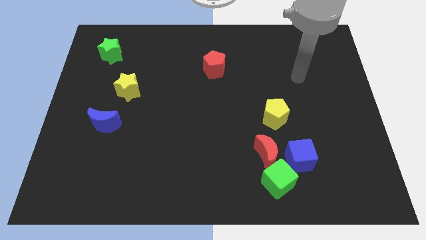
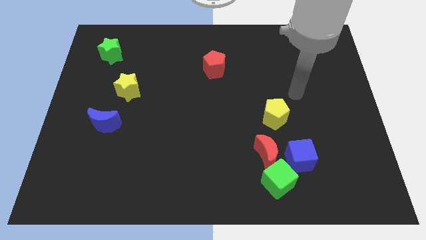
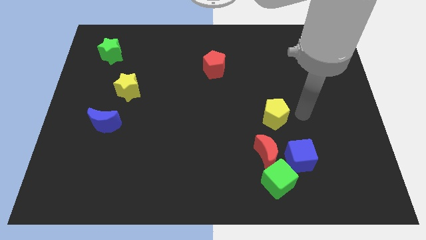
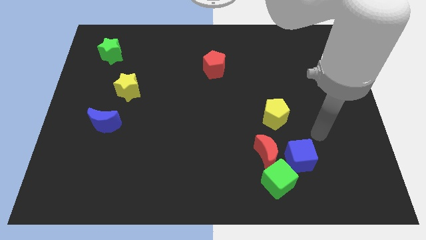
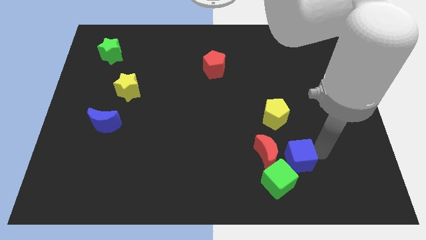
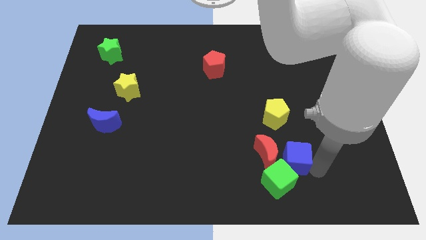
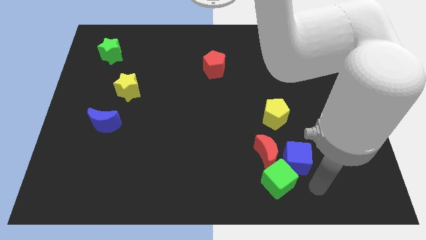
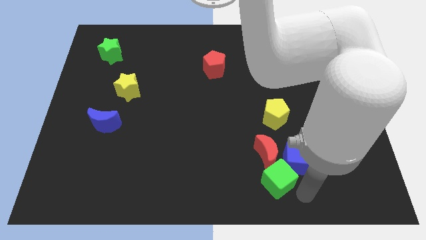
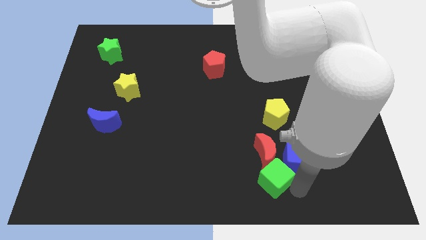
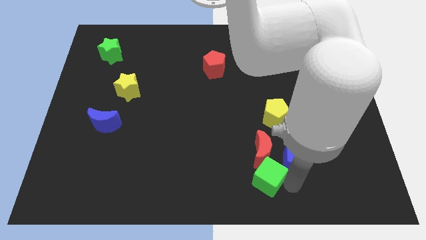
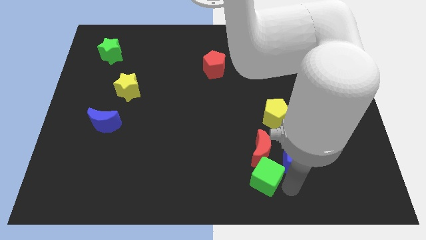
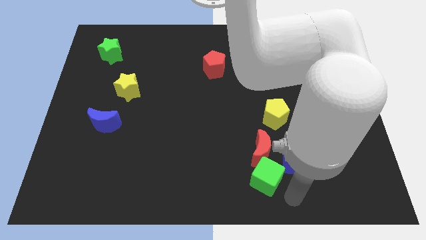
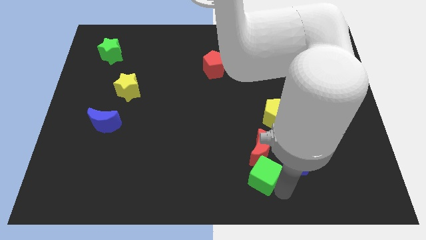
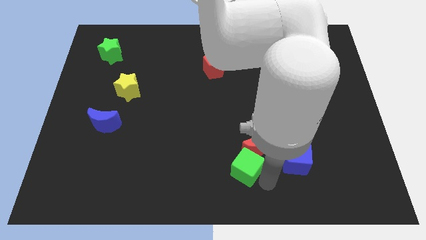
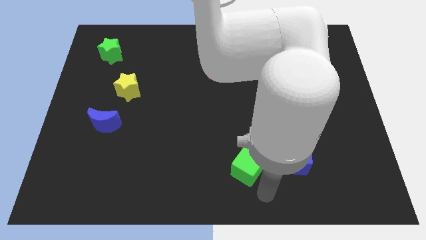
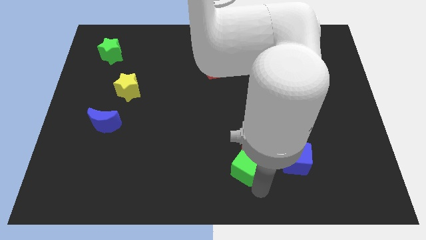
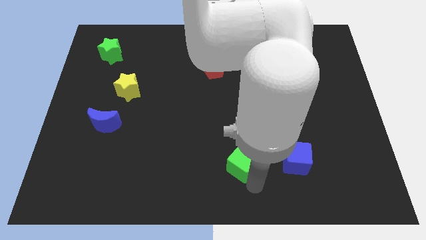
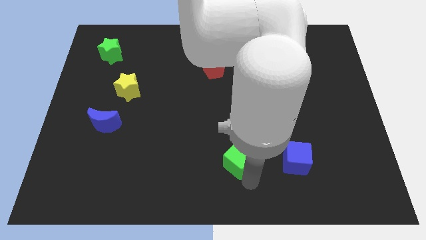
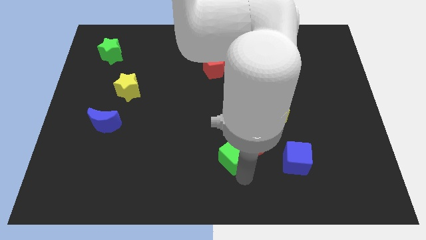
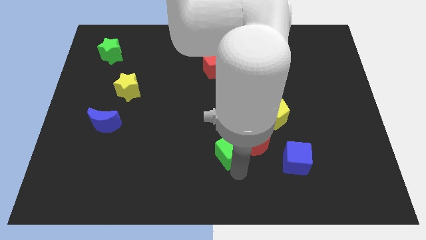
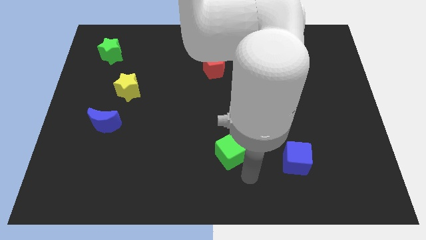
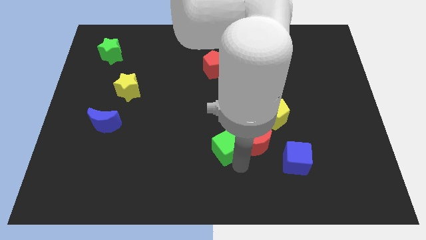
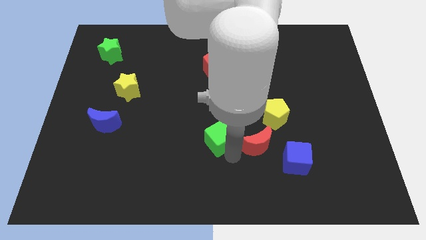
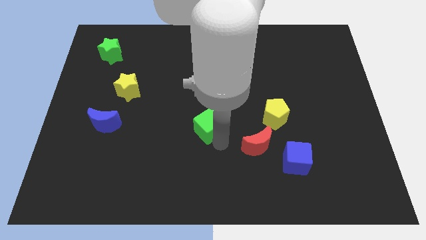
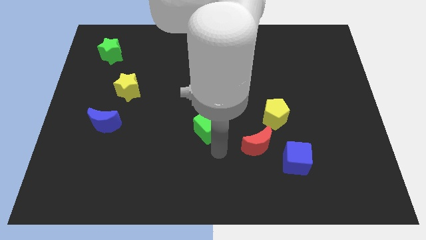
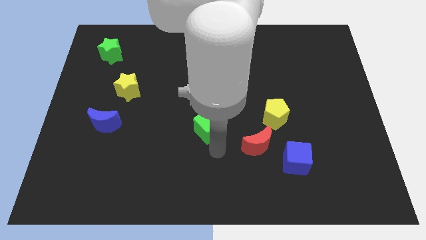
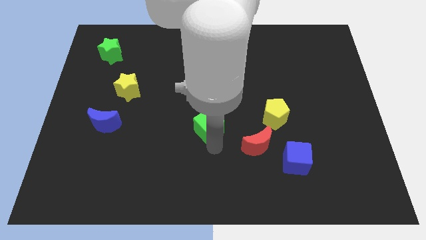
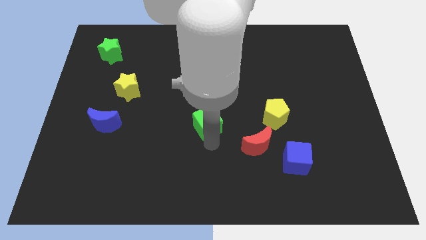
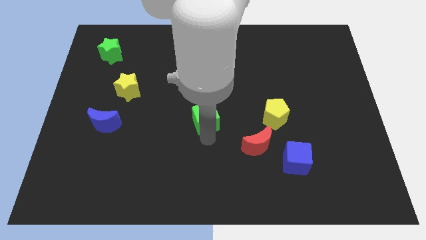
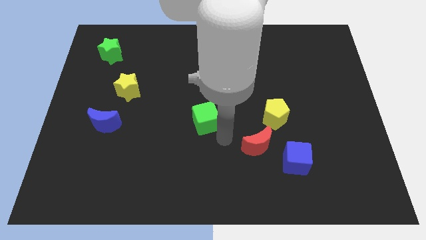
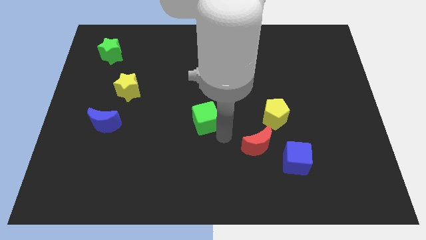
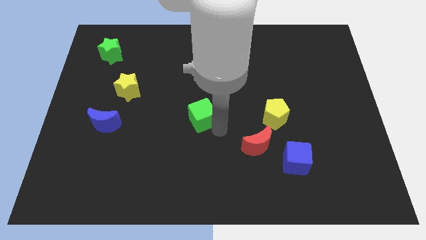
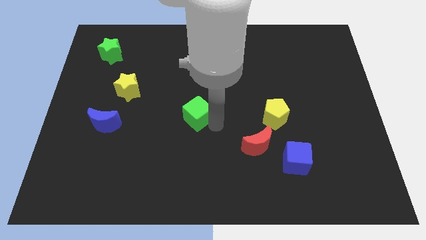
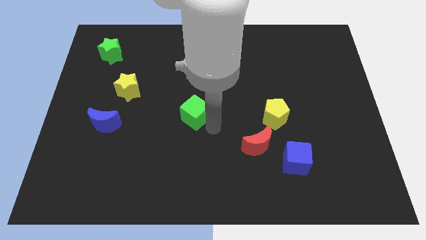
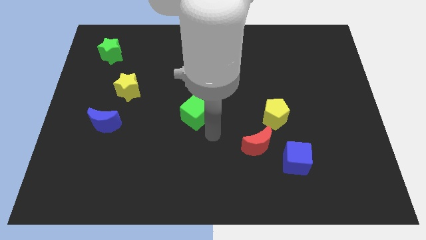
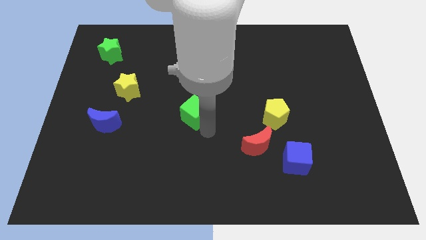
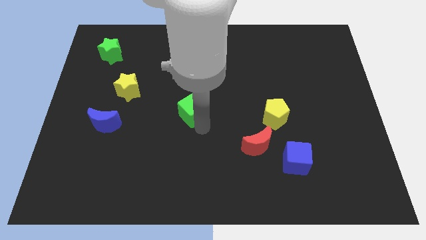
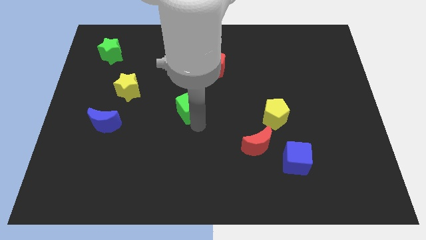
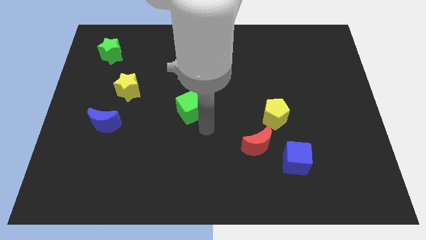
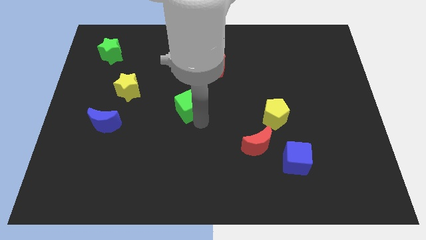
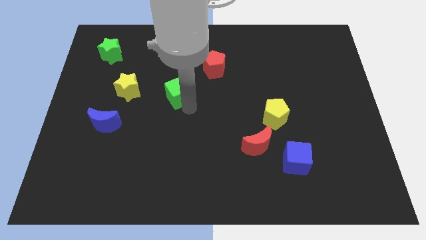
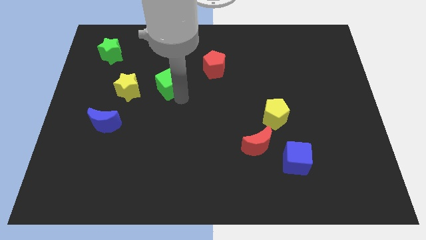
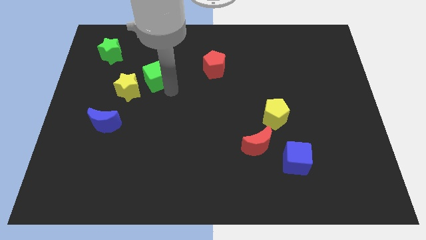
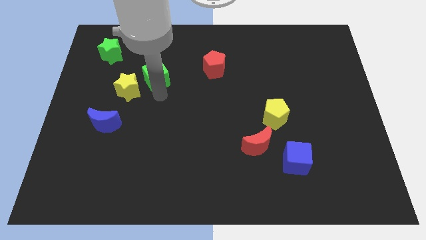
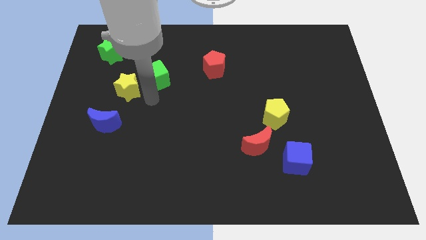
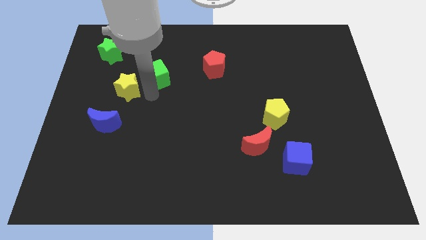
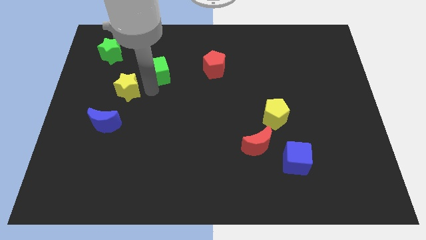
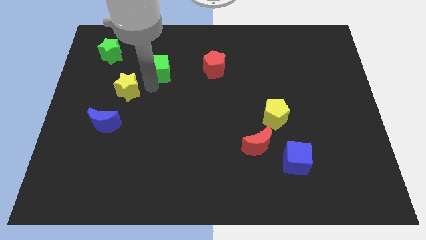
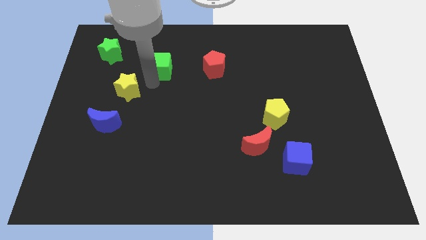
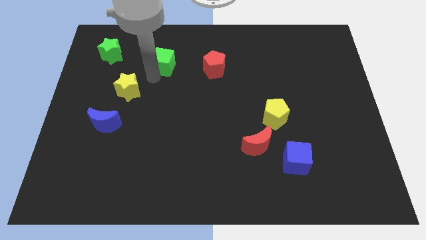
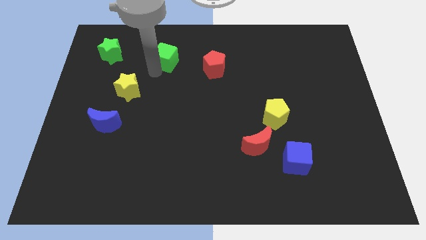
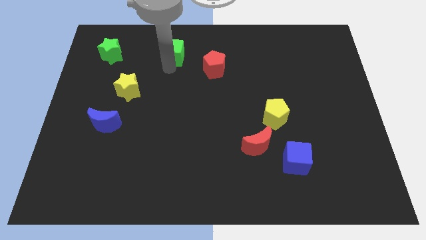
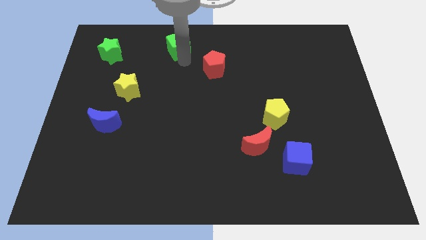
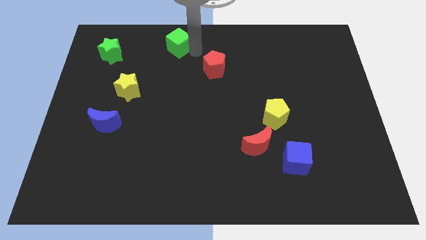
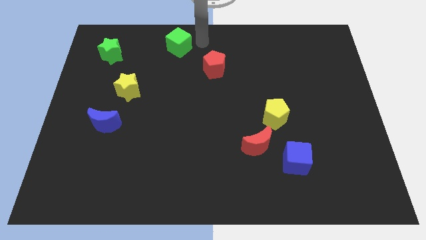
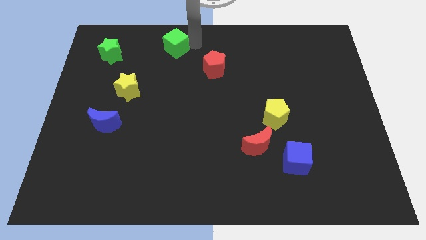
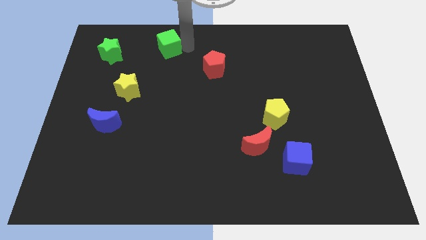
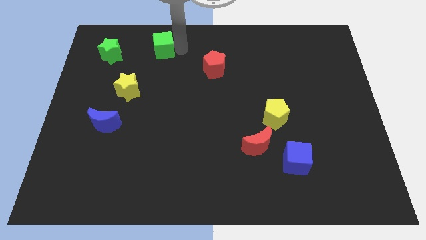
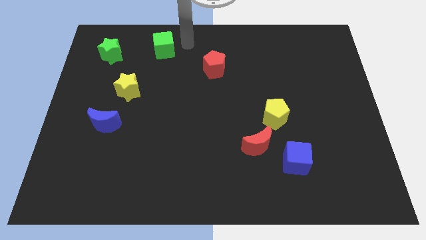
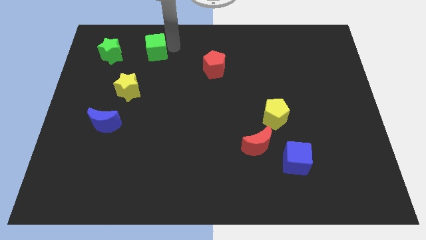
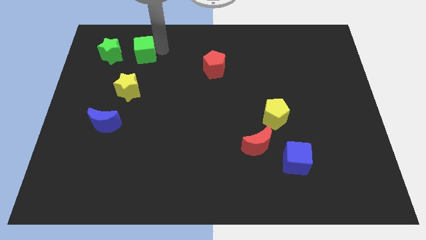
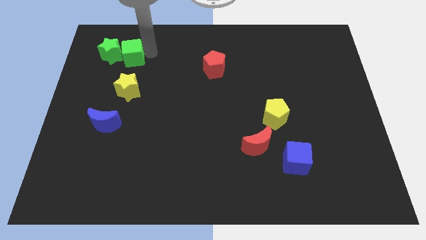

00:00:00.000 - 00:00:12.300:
push the green cube close to the green star

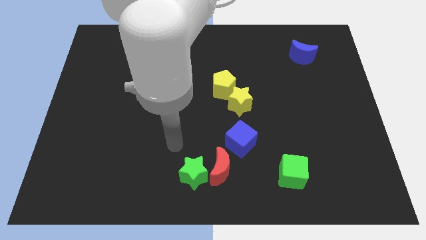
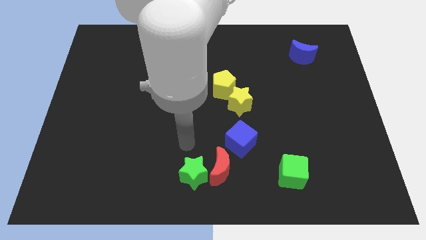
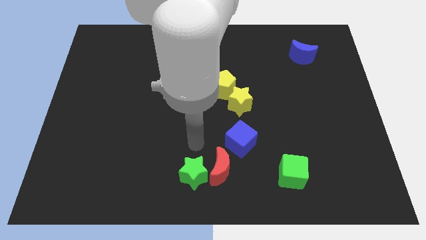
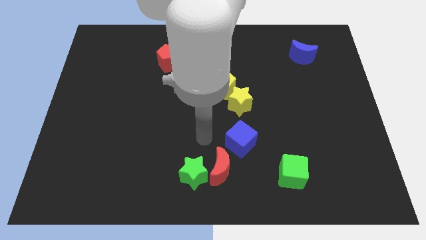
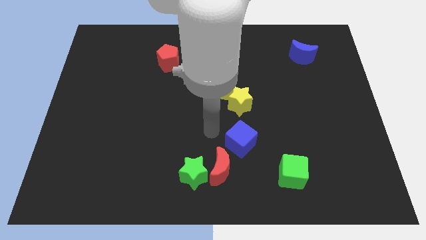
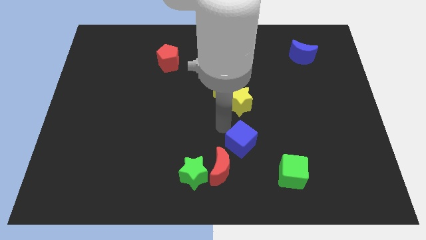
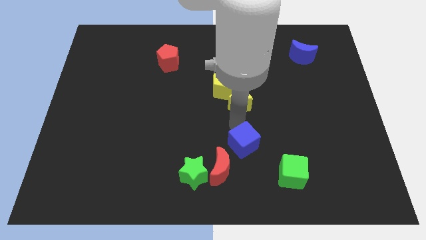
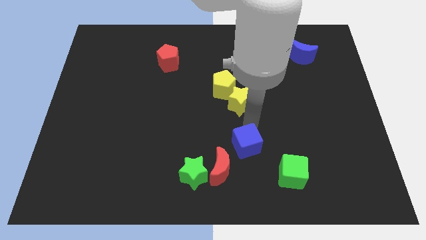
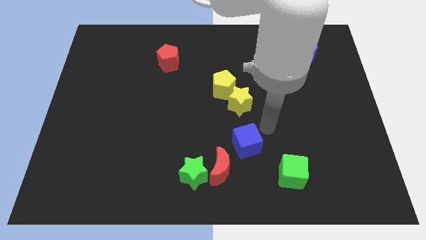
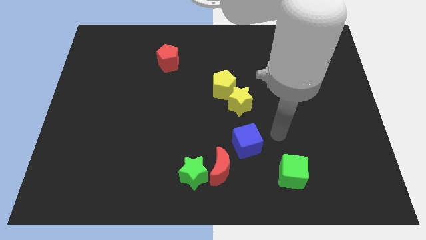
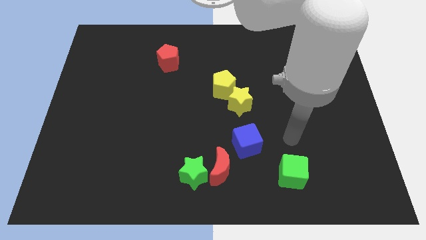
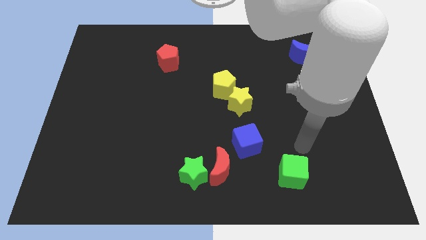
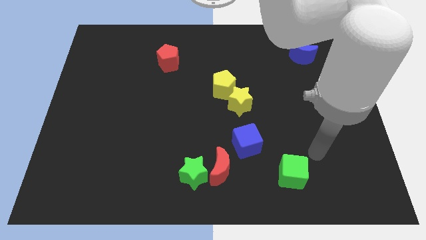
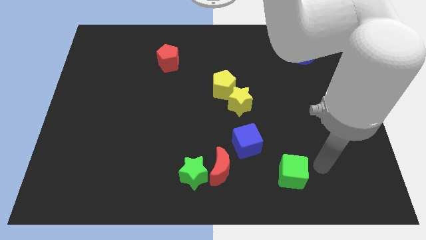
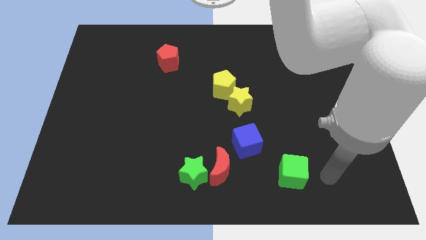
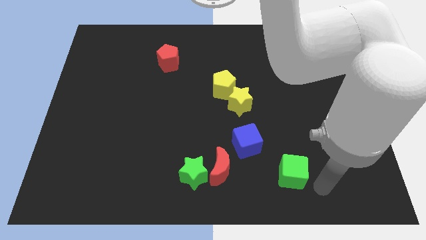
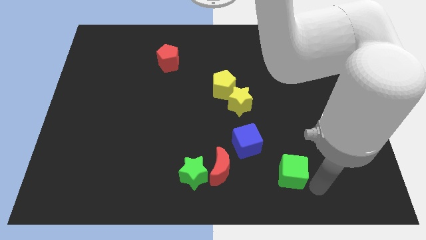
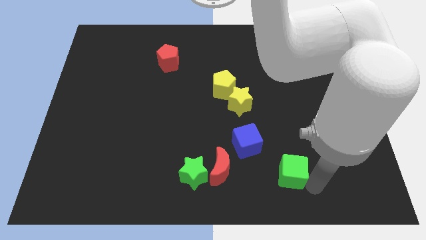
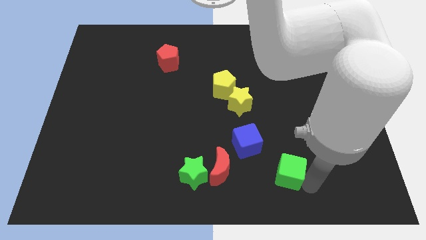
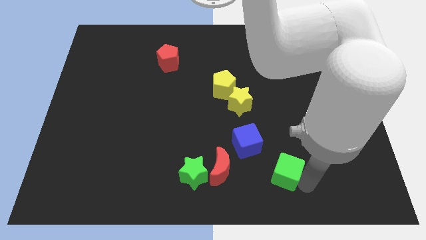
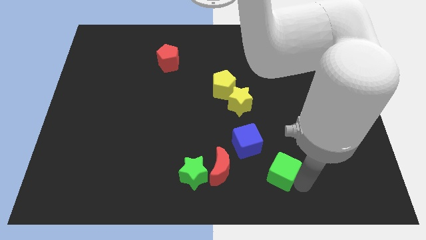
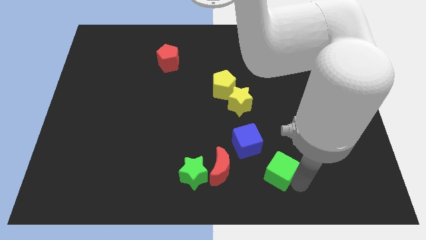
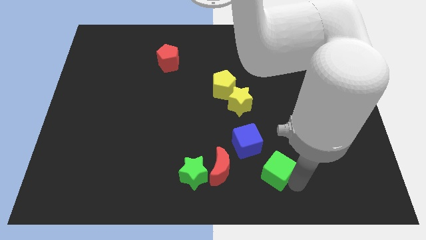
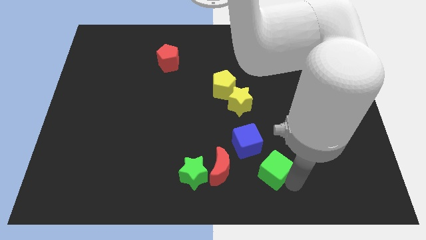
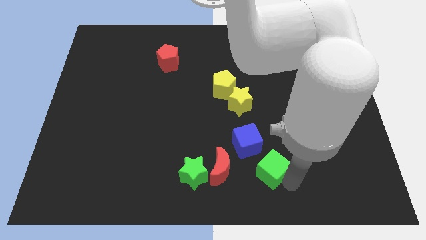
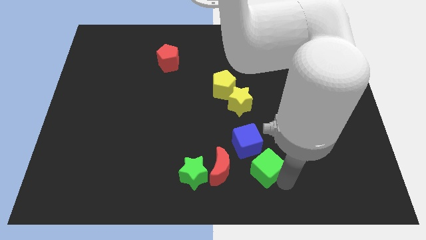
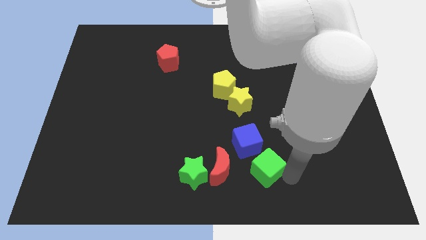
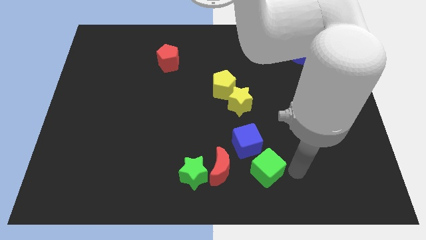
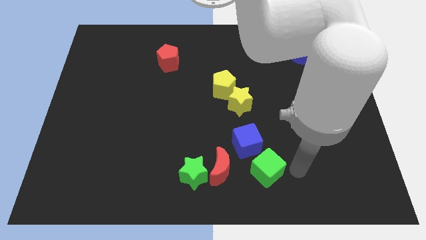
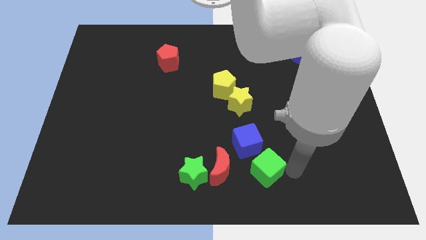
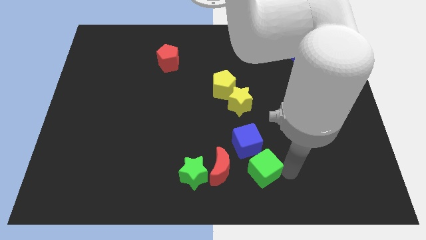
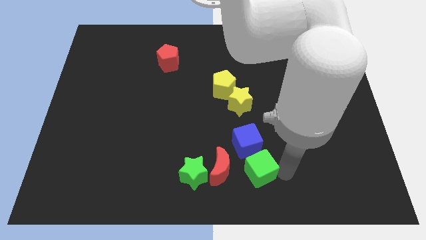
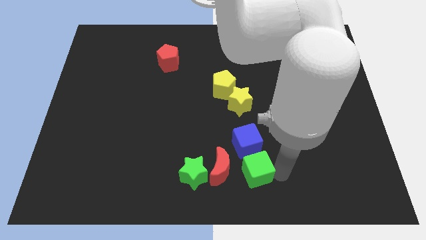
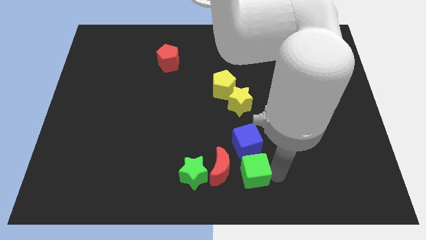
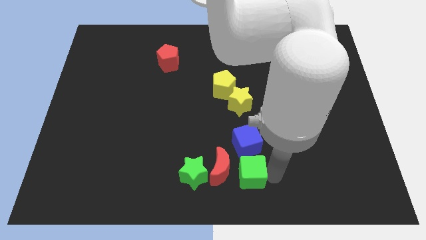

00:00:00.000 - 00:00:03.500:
slide the green cube towards the red moon
